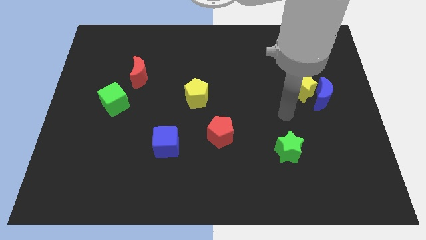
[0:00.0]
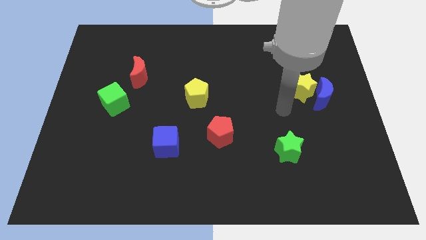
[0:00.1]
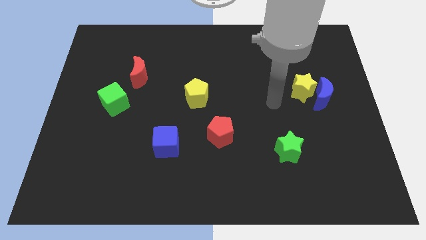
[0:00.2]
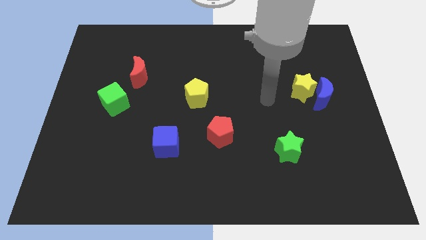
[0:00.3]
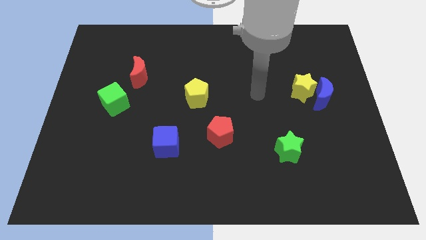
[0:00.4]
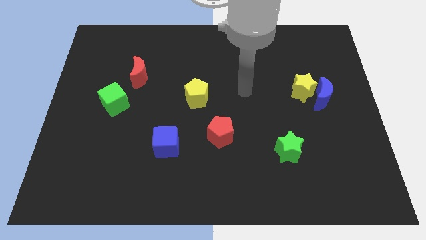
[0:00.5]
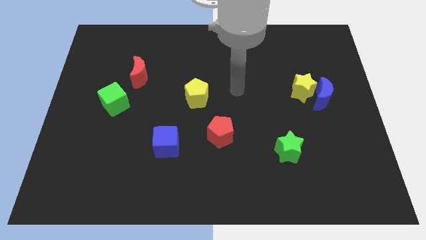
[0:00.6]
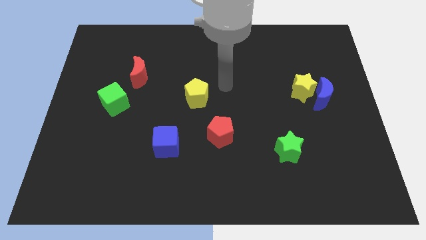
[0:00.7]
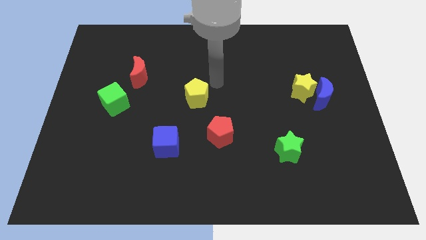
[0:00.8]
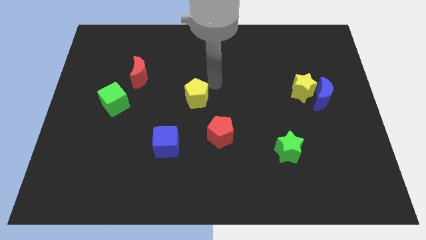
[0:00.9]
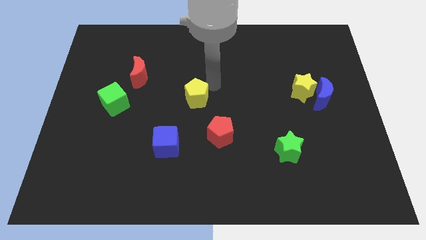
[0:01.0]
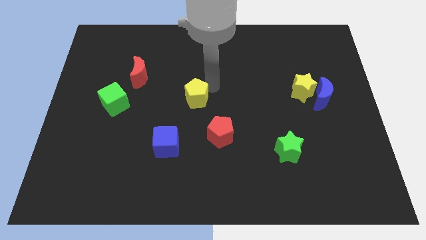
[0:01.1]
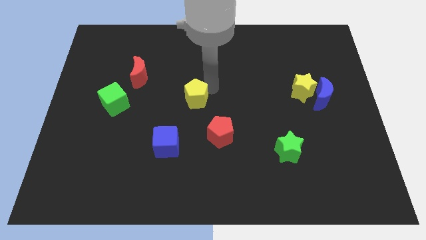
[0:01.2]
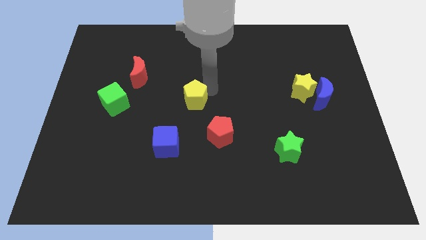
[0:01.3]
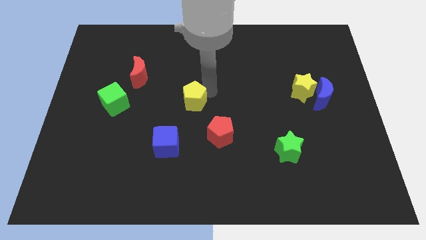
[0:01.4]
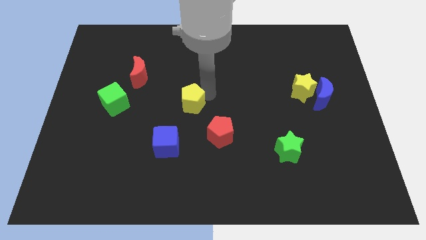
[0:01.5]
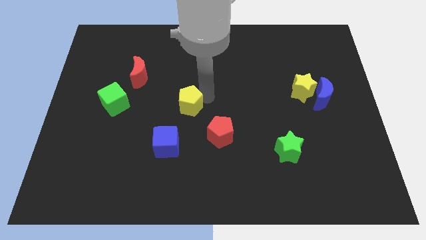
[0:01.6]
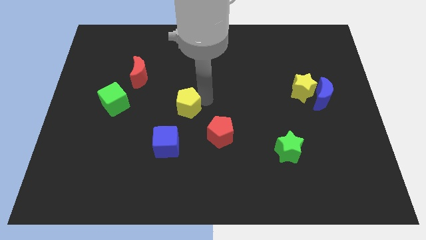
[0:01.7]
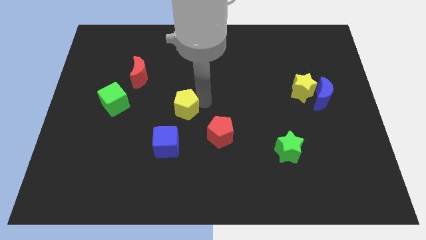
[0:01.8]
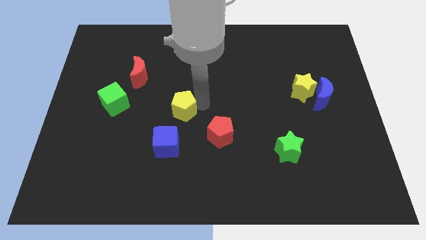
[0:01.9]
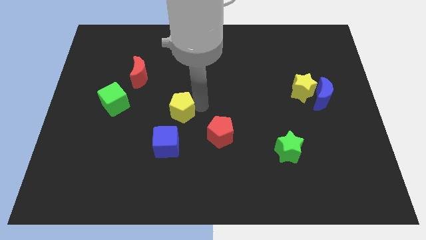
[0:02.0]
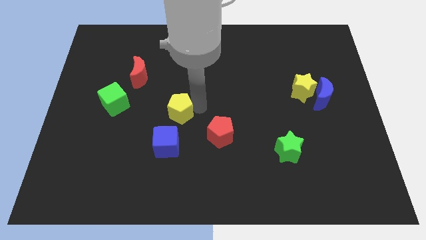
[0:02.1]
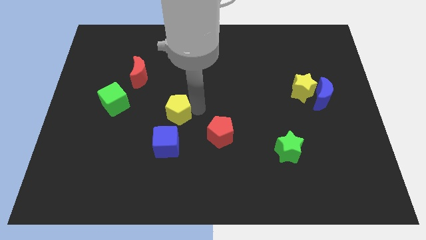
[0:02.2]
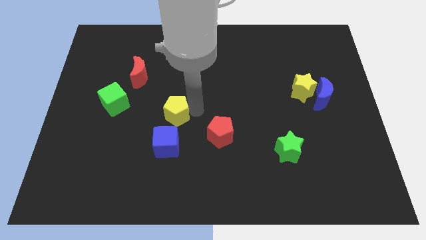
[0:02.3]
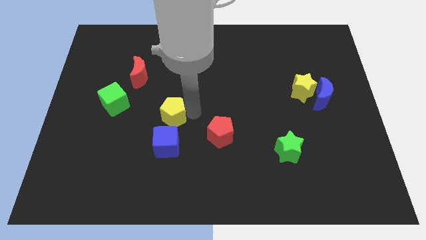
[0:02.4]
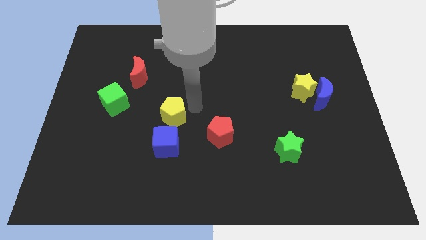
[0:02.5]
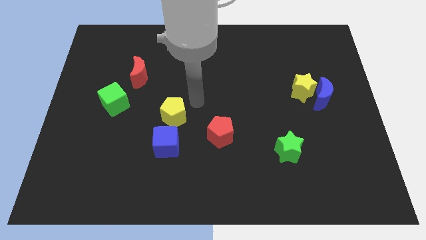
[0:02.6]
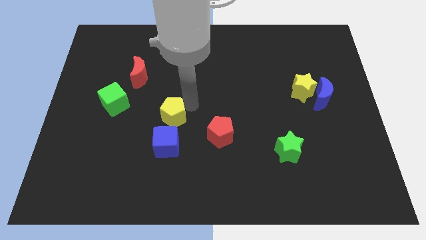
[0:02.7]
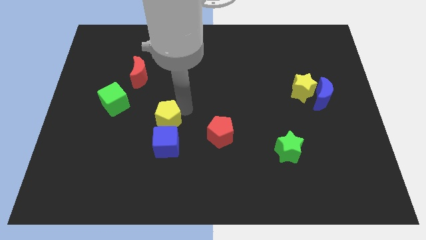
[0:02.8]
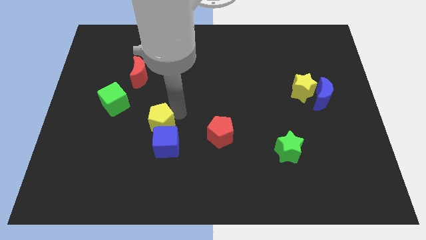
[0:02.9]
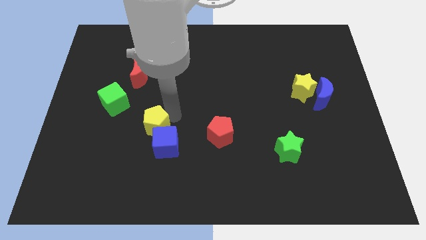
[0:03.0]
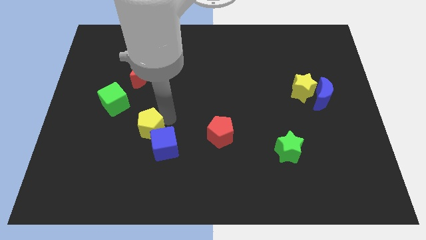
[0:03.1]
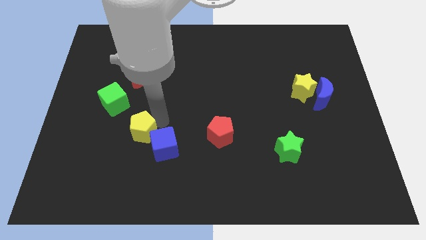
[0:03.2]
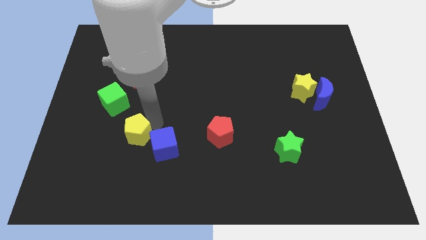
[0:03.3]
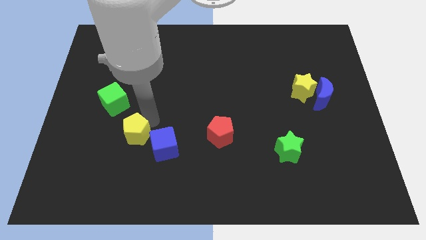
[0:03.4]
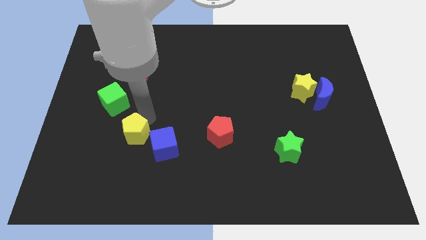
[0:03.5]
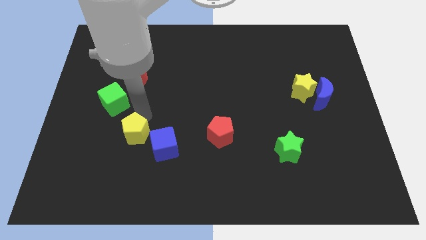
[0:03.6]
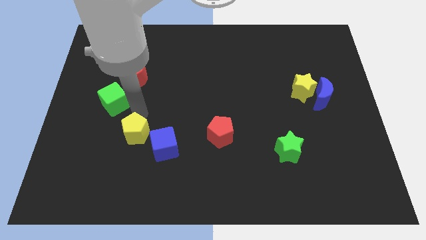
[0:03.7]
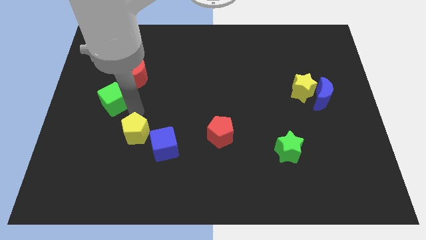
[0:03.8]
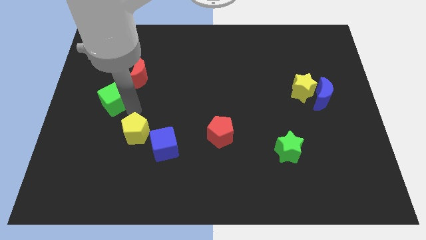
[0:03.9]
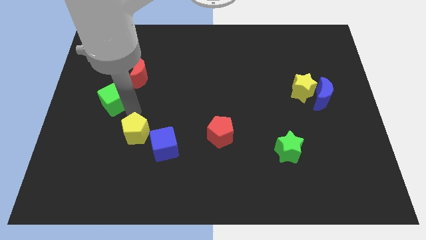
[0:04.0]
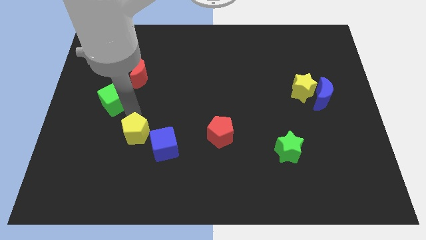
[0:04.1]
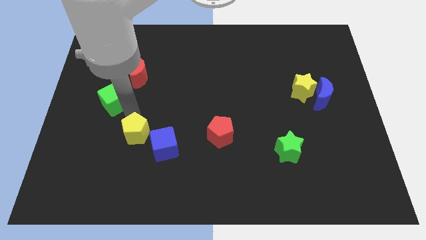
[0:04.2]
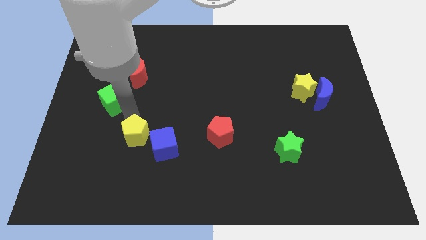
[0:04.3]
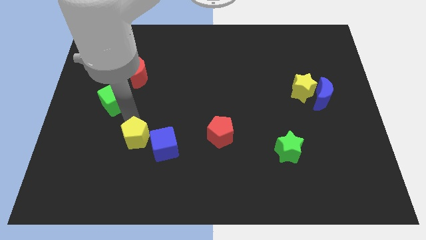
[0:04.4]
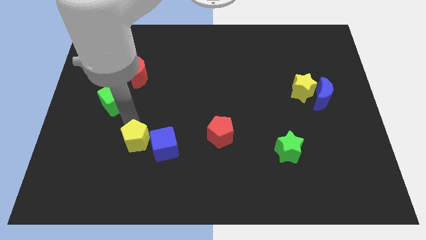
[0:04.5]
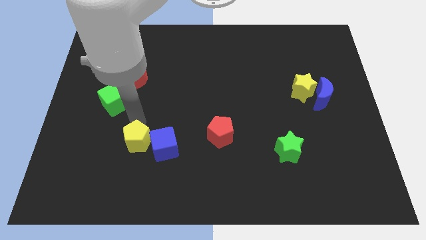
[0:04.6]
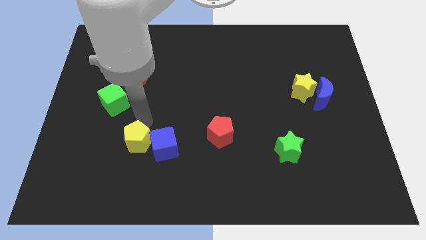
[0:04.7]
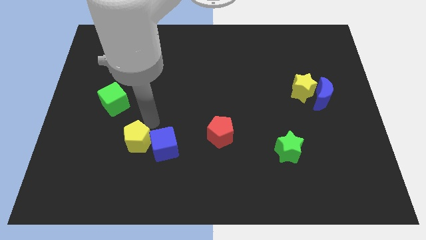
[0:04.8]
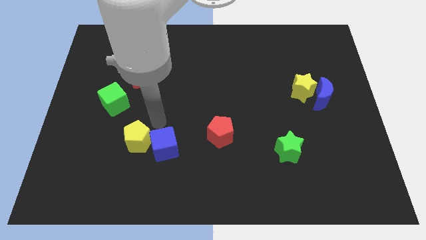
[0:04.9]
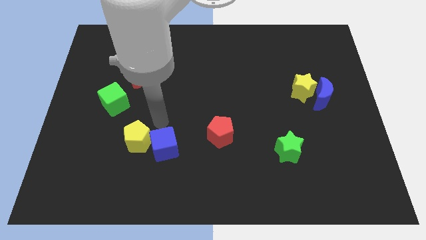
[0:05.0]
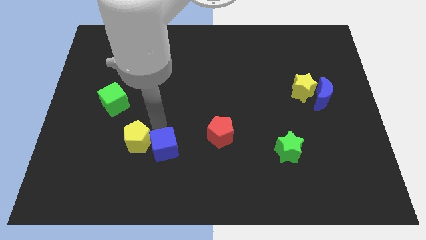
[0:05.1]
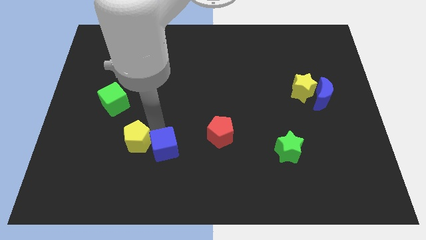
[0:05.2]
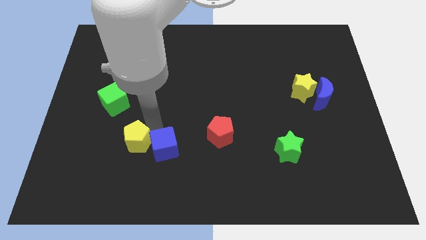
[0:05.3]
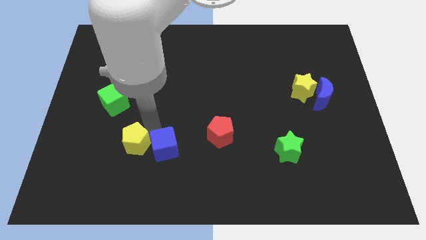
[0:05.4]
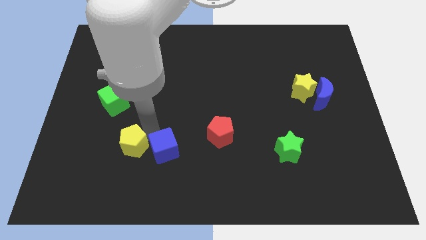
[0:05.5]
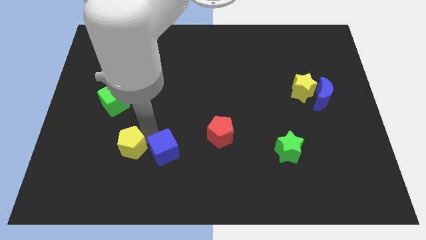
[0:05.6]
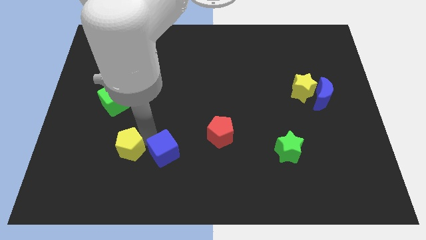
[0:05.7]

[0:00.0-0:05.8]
move the yellow pentagon diagonally down and left

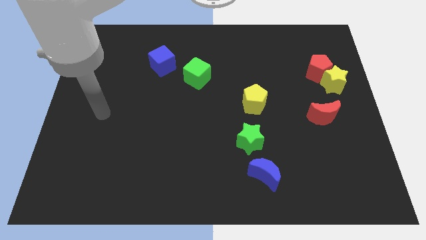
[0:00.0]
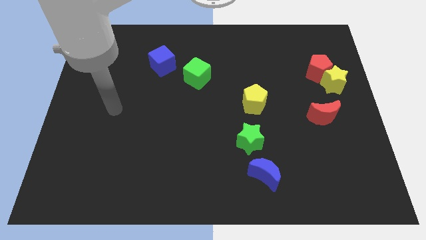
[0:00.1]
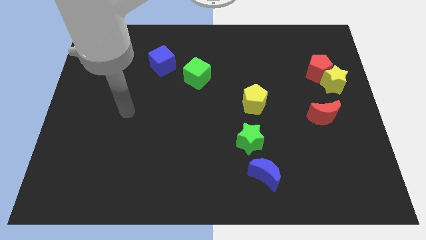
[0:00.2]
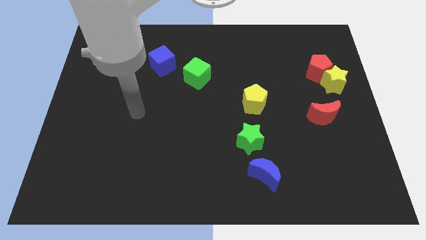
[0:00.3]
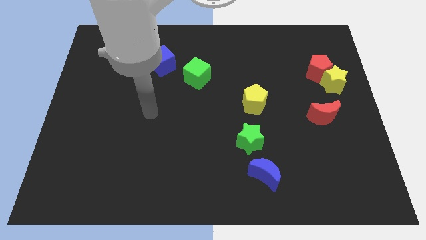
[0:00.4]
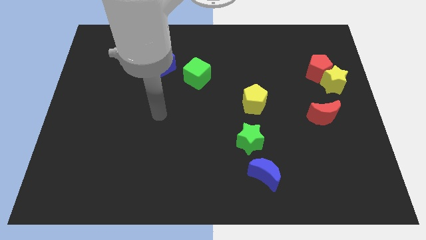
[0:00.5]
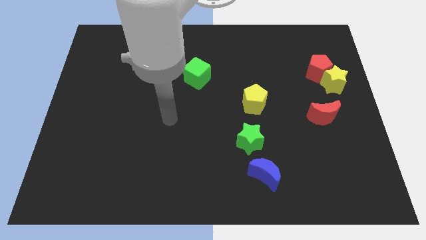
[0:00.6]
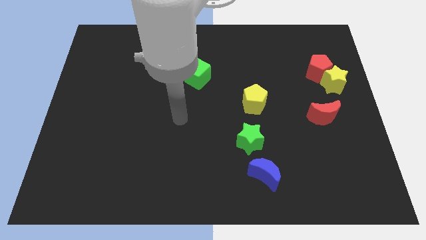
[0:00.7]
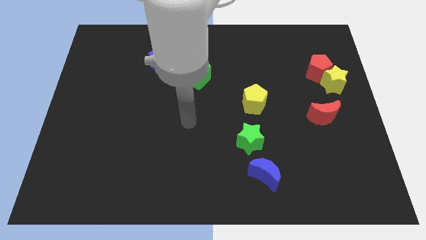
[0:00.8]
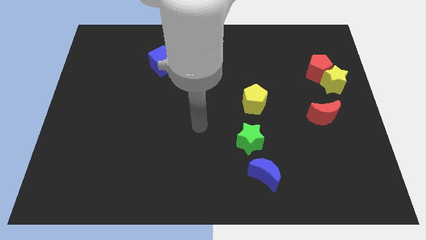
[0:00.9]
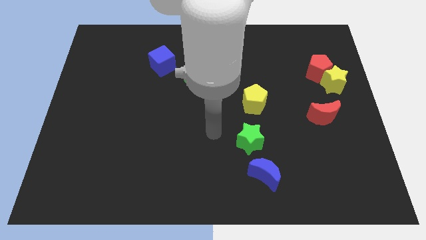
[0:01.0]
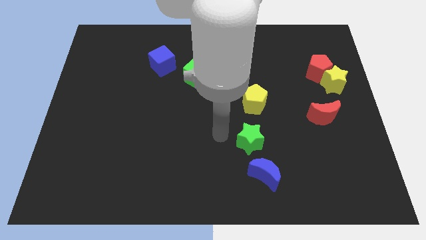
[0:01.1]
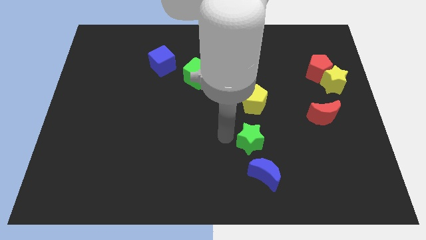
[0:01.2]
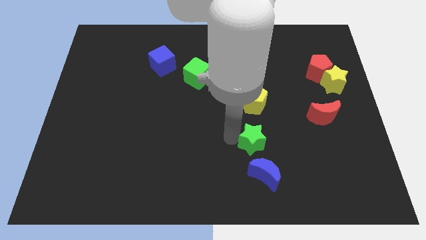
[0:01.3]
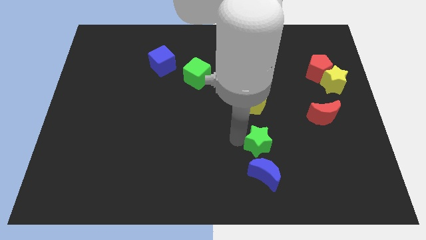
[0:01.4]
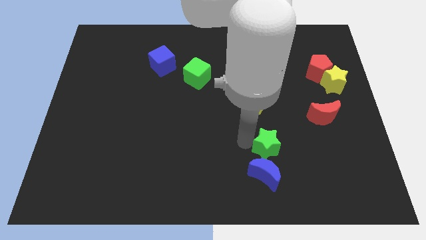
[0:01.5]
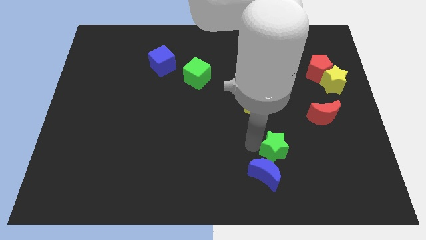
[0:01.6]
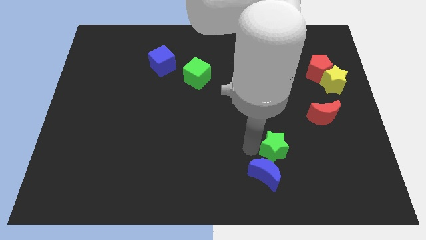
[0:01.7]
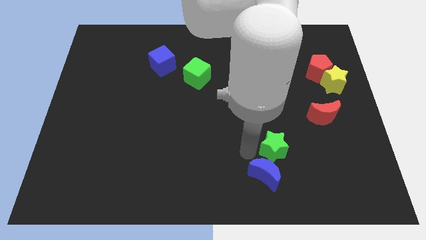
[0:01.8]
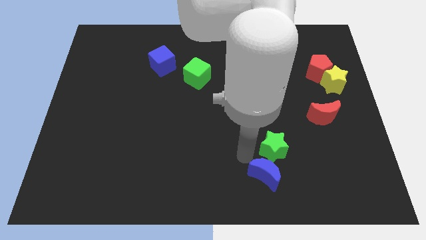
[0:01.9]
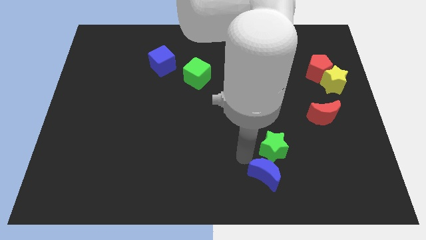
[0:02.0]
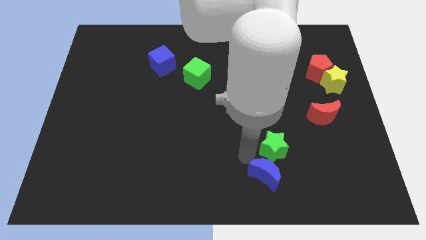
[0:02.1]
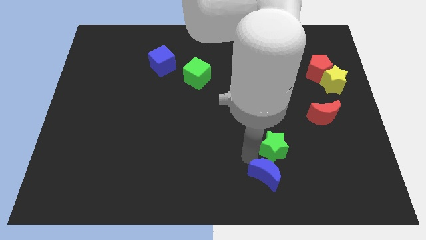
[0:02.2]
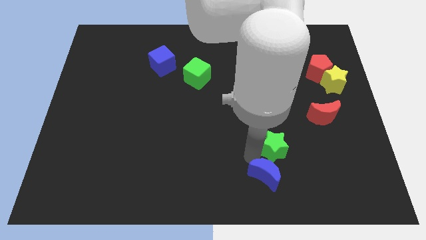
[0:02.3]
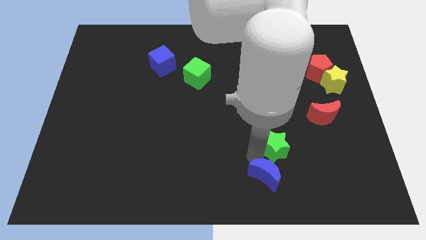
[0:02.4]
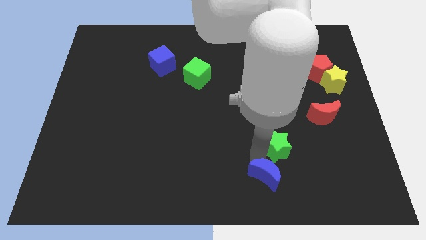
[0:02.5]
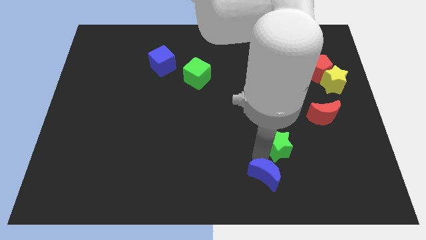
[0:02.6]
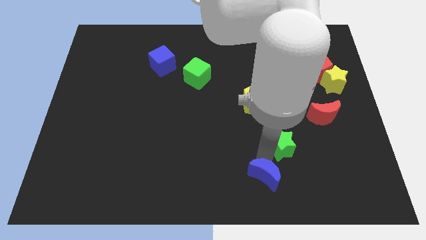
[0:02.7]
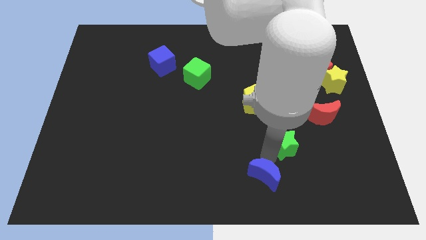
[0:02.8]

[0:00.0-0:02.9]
slightly push the green star to the right
